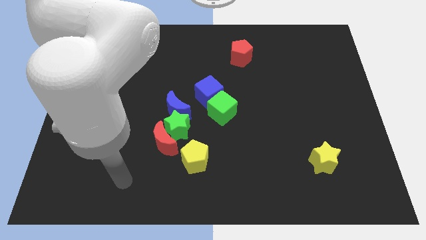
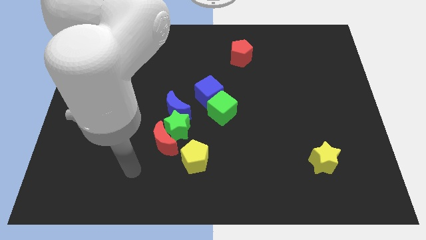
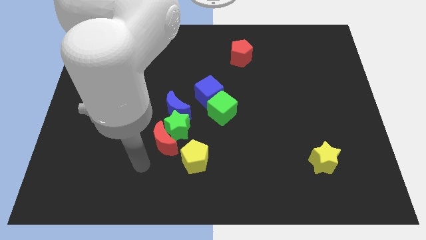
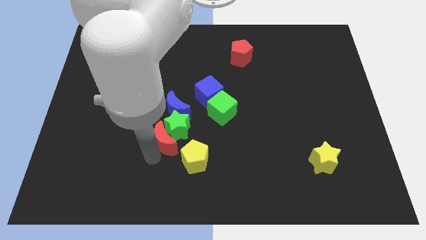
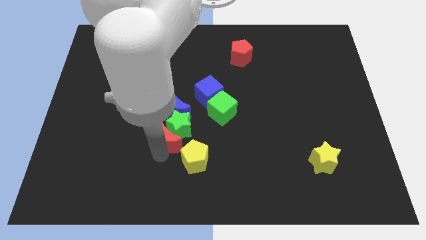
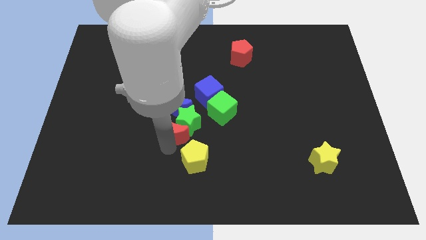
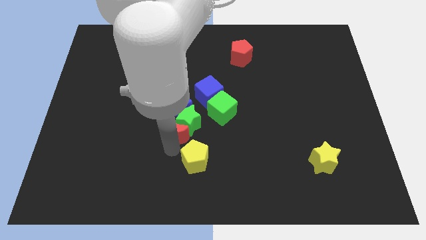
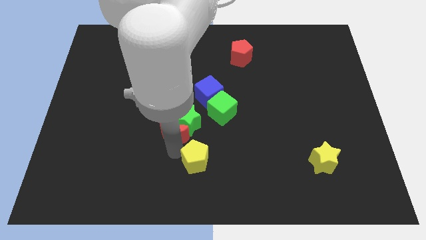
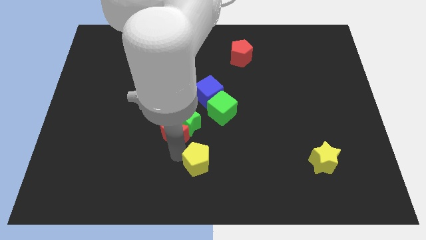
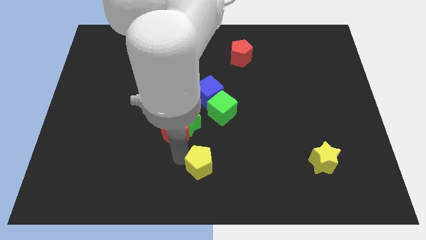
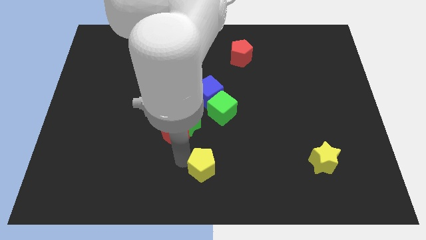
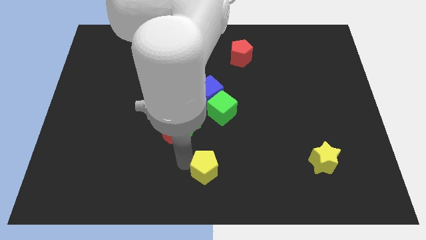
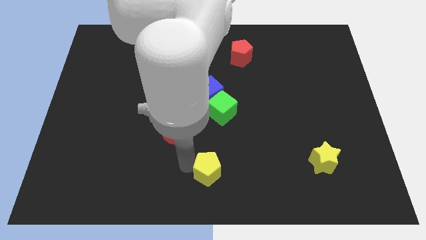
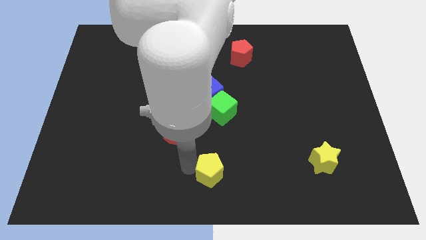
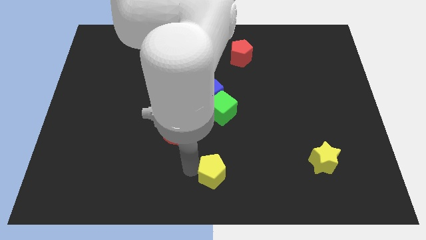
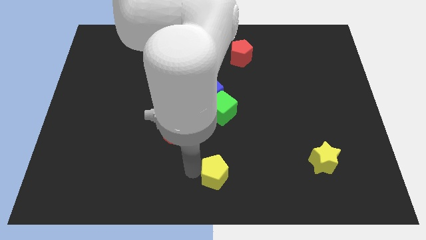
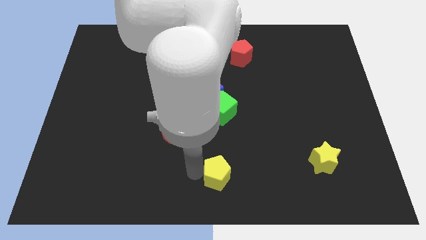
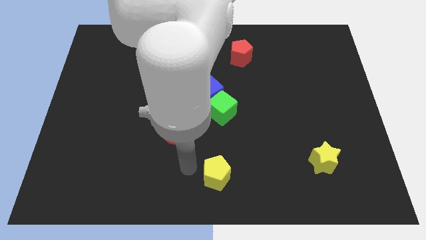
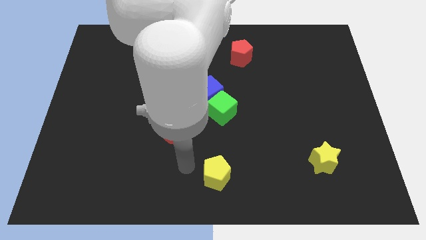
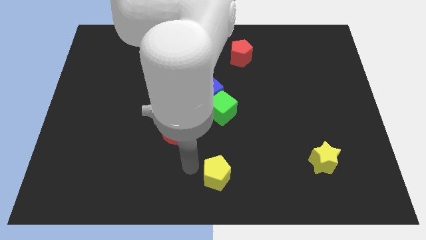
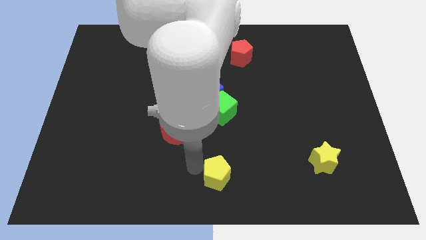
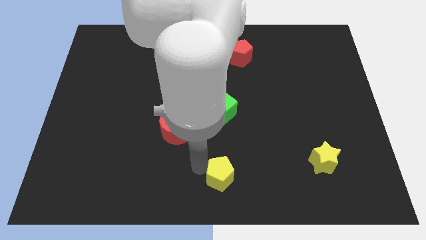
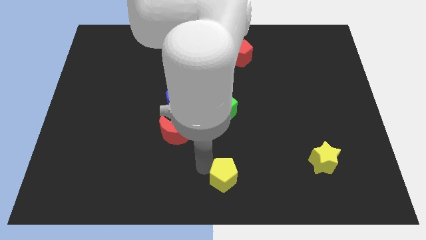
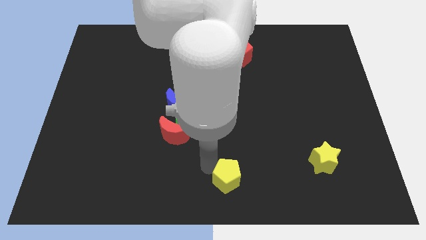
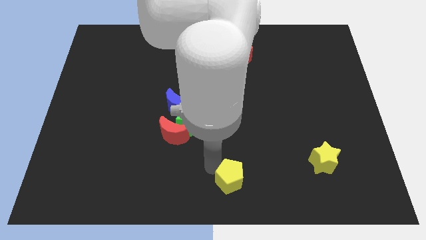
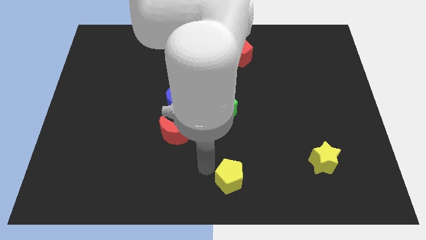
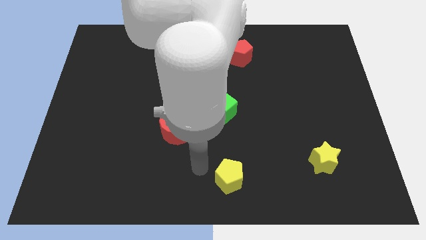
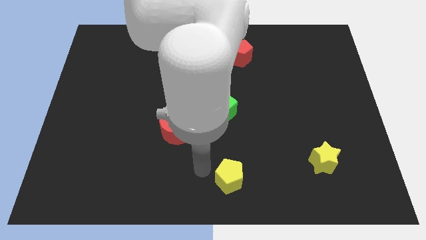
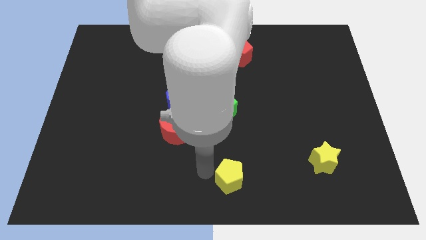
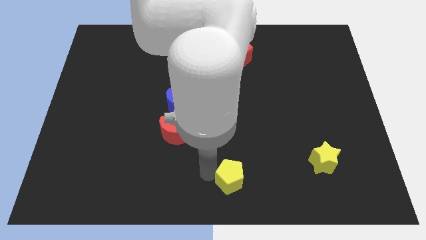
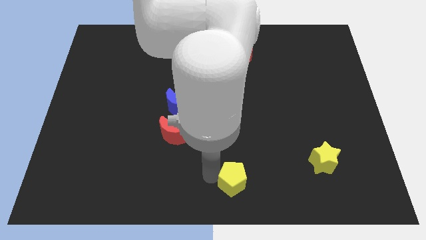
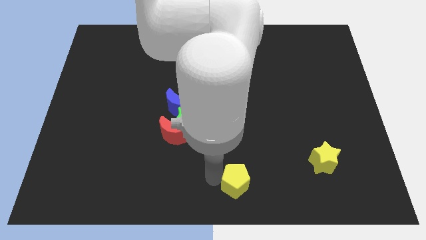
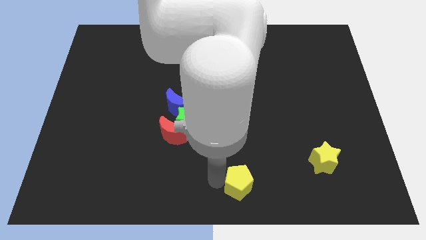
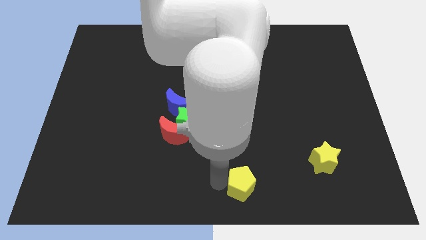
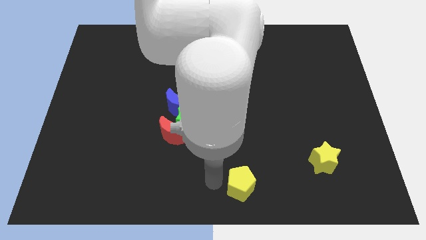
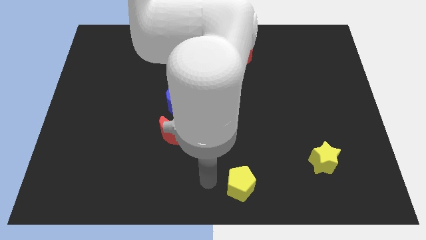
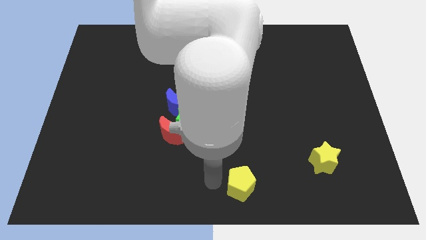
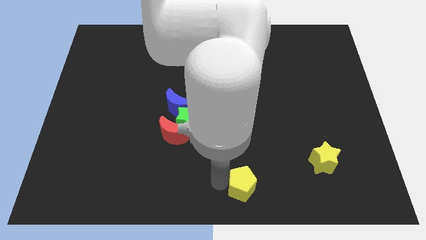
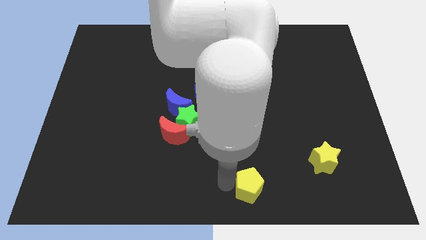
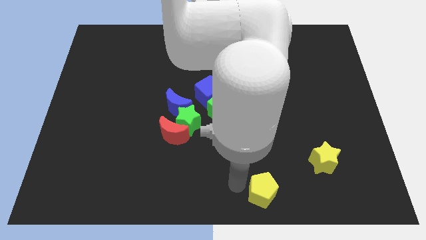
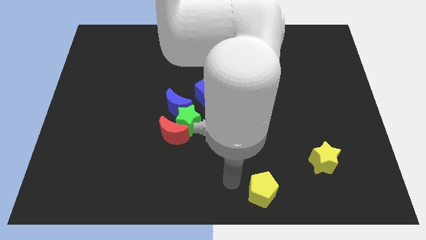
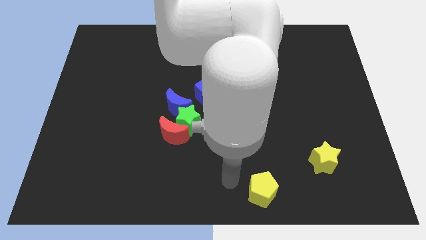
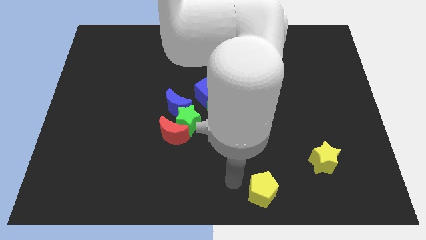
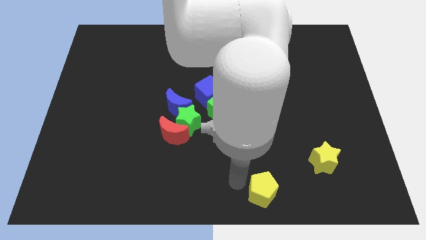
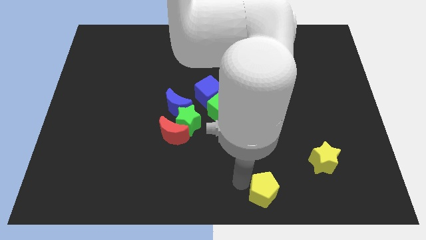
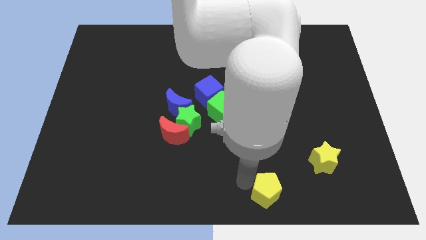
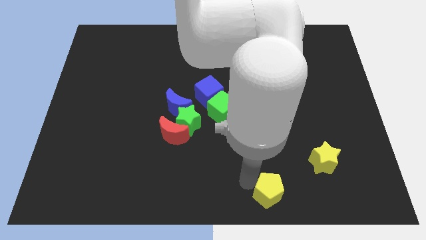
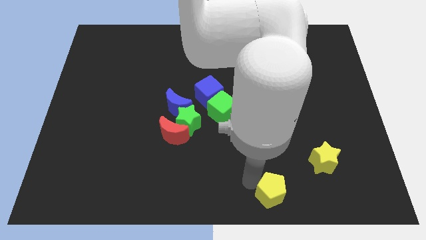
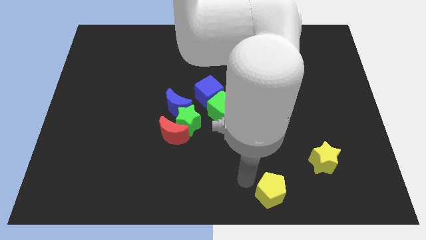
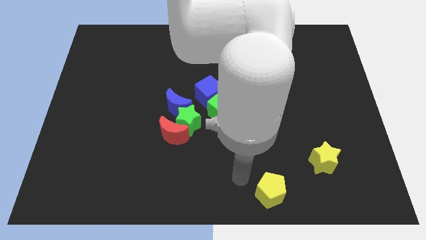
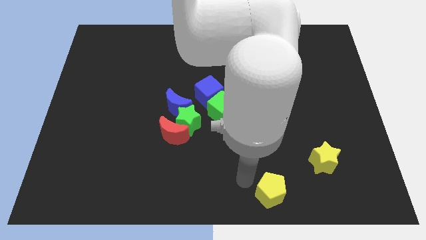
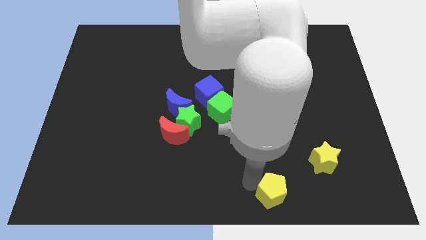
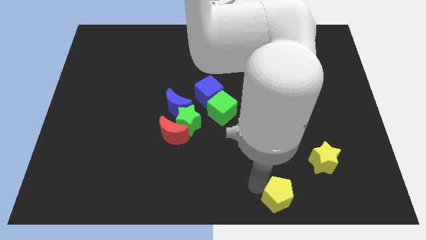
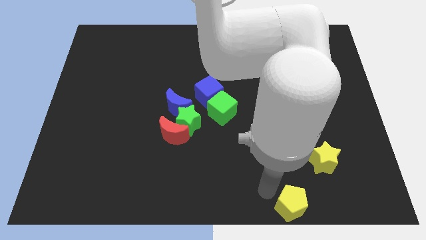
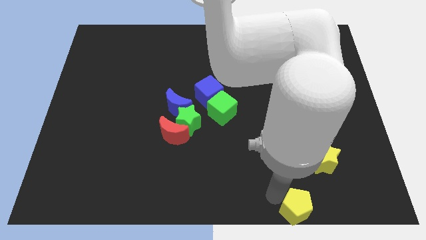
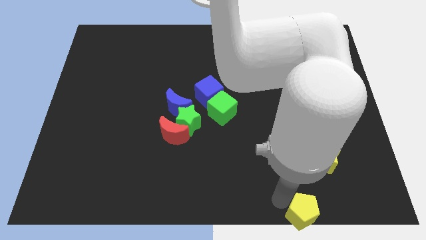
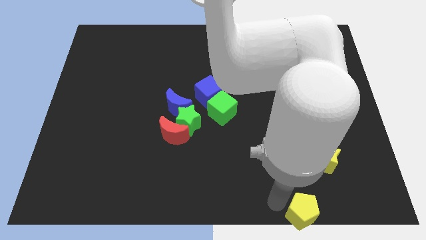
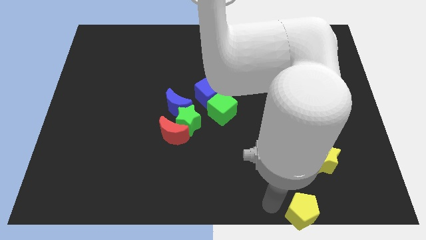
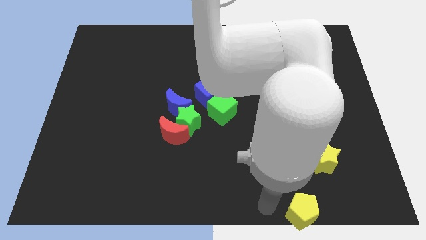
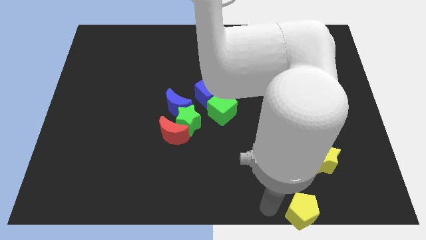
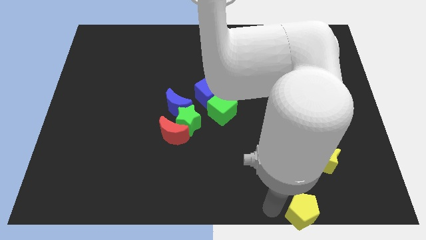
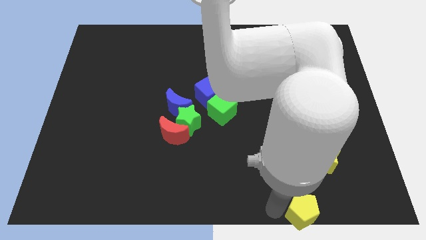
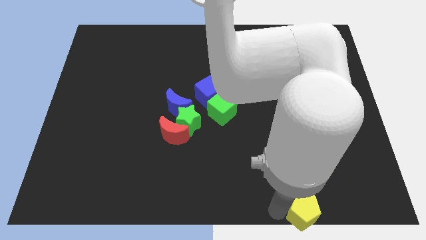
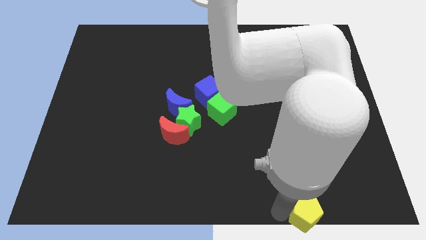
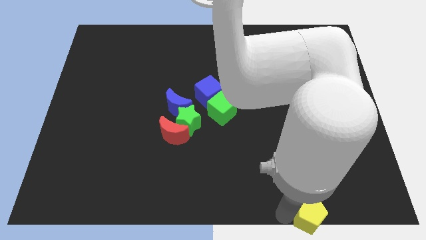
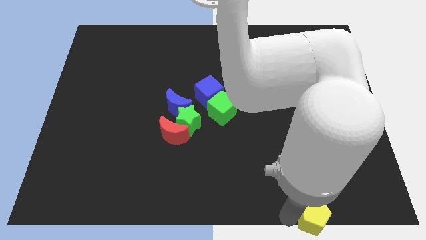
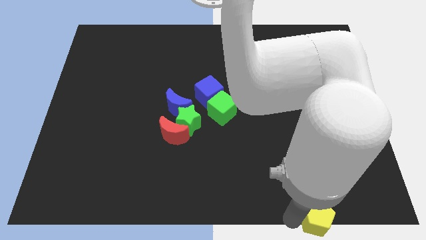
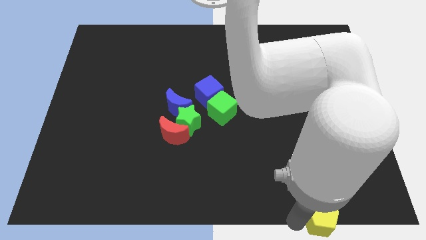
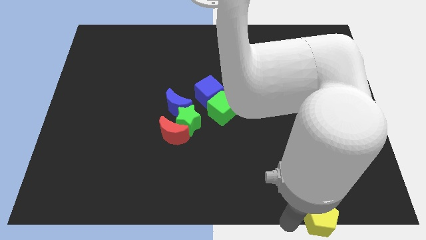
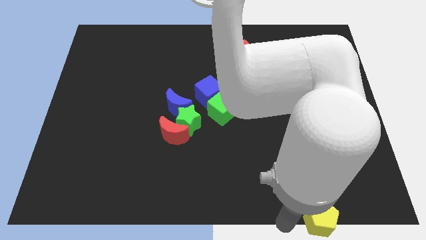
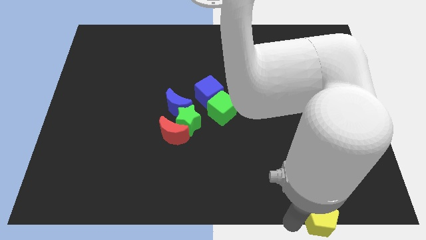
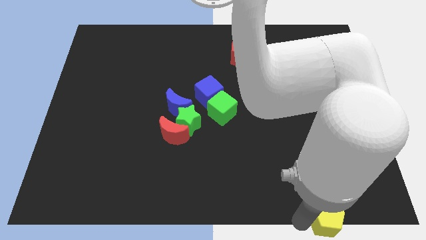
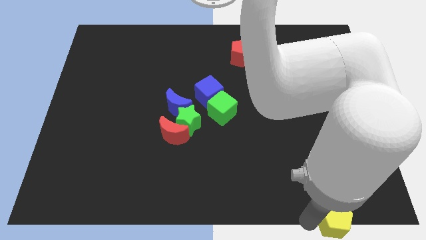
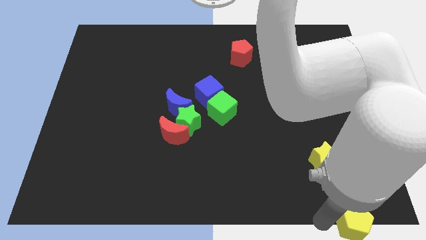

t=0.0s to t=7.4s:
move the yellow pentagon to the bottom right of the board
